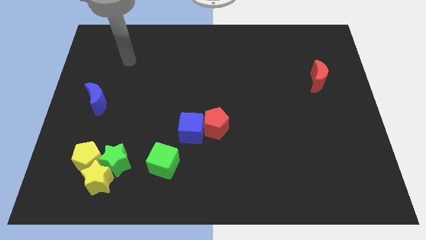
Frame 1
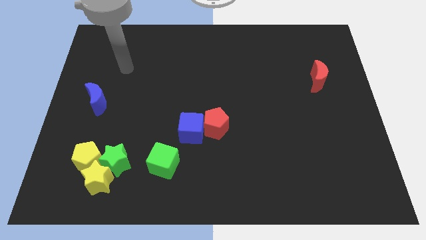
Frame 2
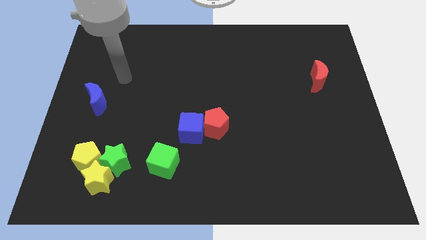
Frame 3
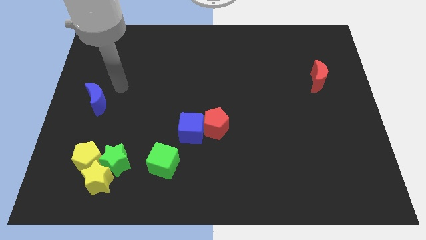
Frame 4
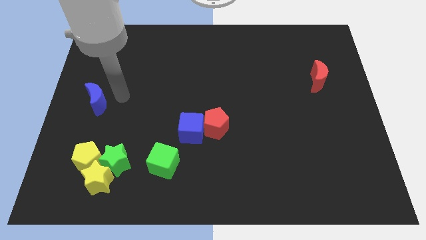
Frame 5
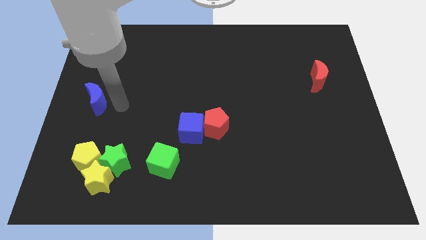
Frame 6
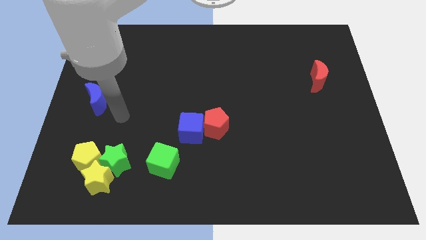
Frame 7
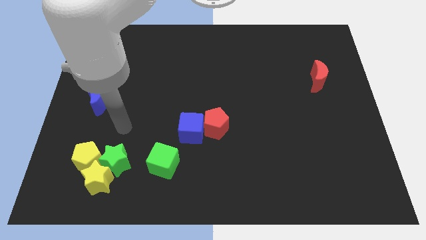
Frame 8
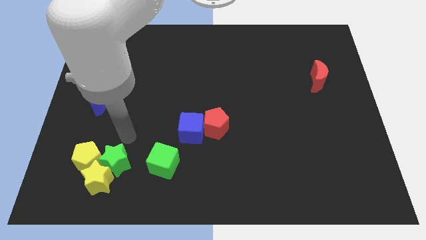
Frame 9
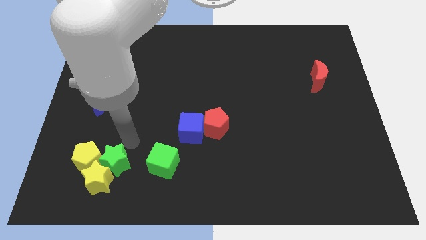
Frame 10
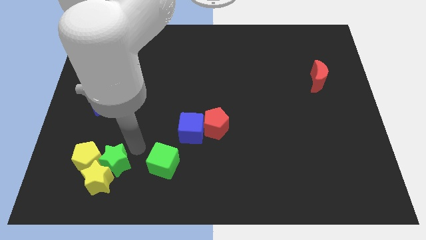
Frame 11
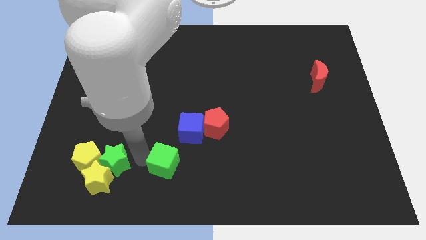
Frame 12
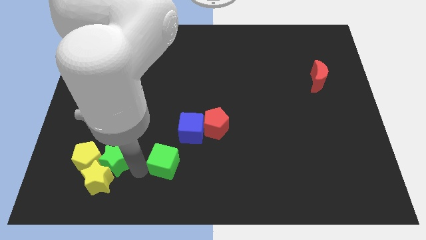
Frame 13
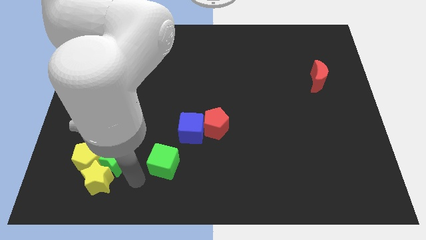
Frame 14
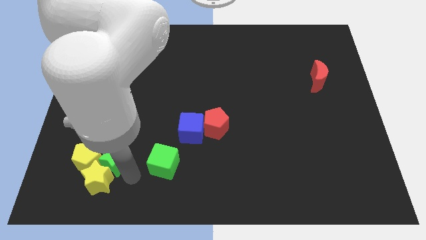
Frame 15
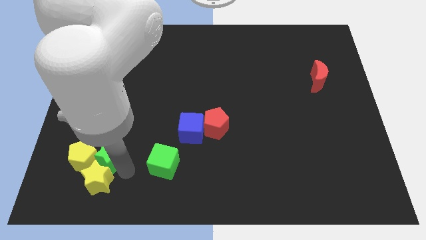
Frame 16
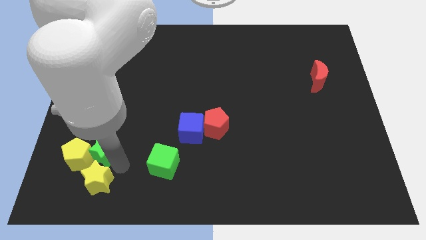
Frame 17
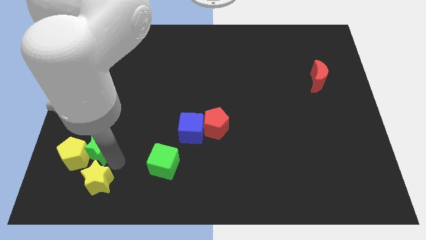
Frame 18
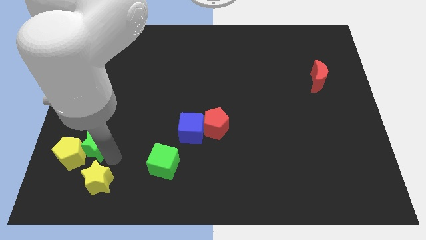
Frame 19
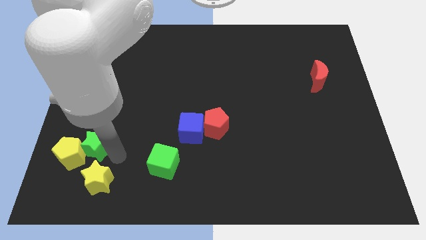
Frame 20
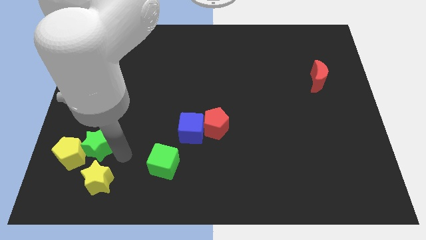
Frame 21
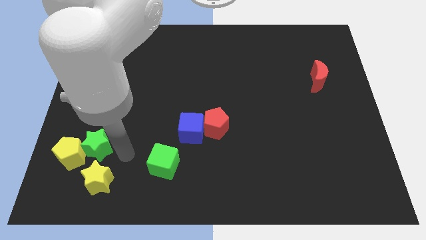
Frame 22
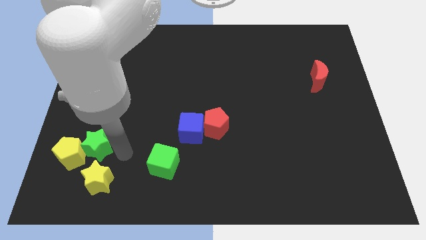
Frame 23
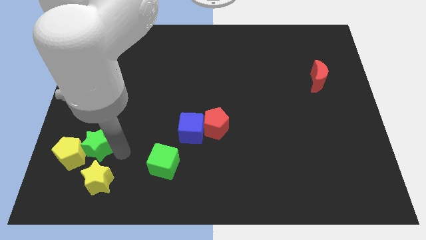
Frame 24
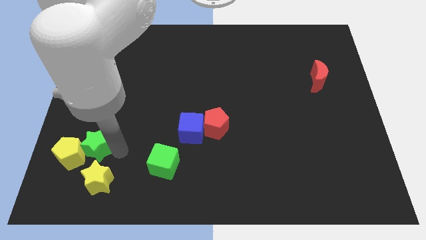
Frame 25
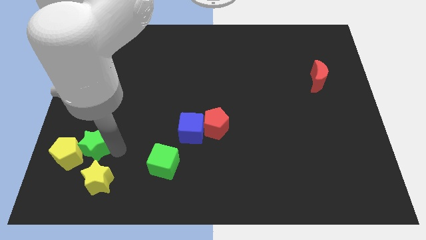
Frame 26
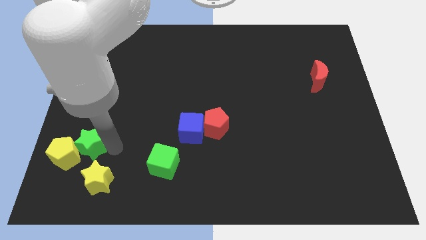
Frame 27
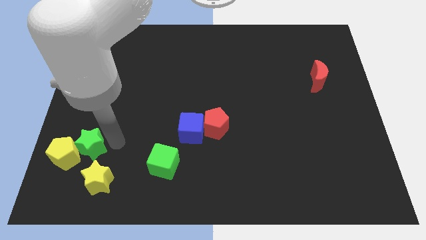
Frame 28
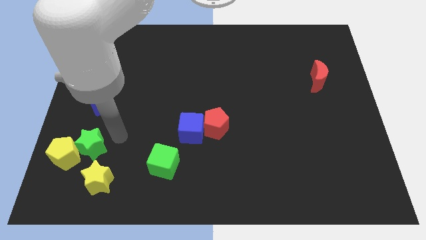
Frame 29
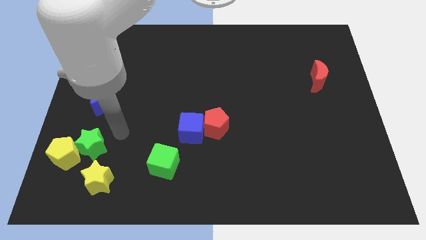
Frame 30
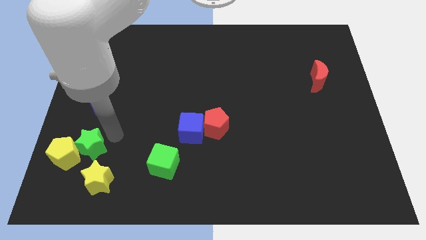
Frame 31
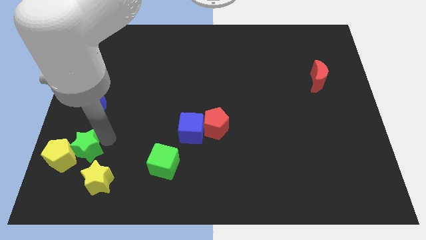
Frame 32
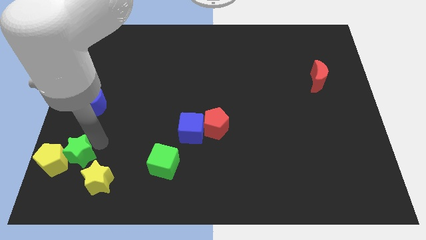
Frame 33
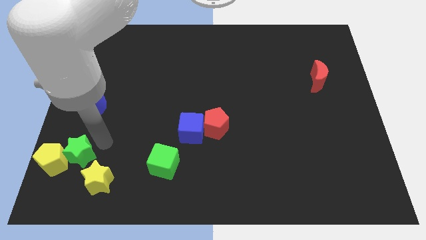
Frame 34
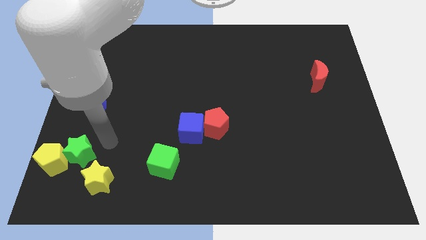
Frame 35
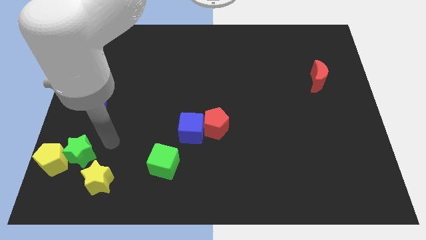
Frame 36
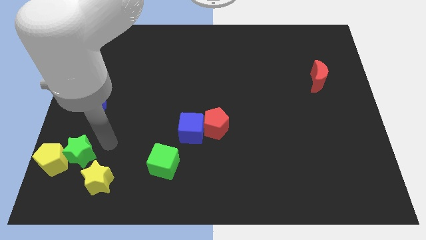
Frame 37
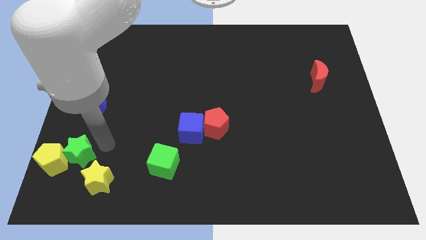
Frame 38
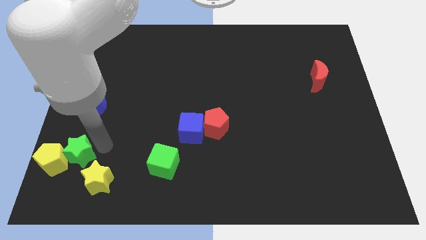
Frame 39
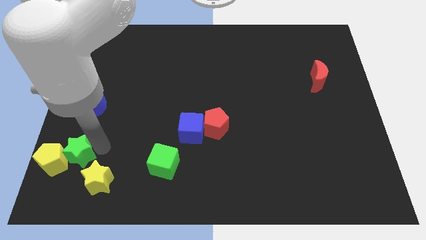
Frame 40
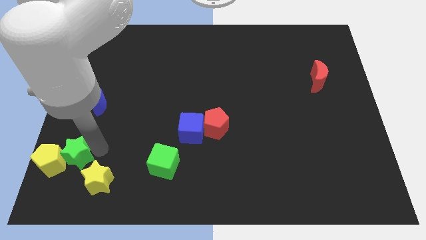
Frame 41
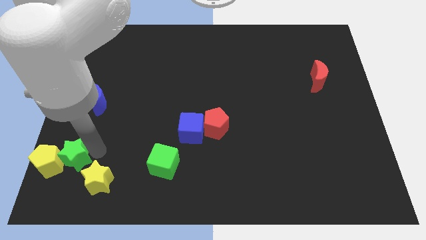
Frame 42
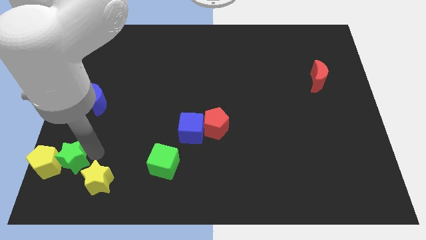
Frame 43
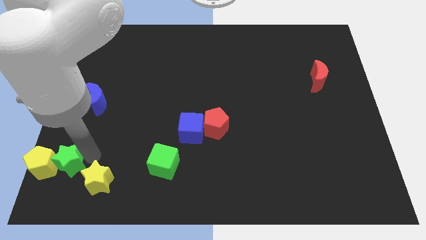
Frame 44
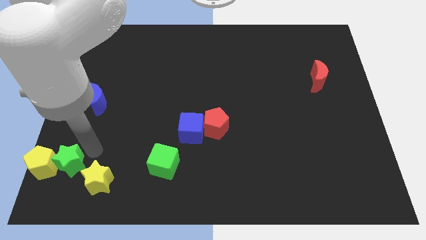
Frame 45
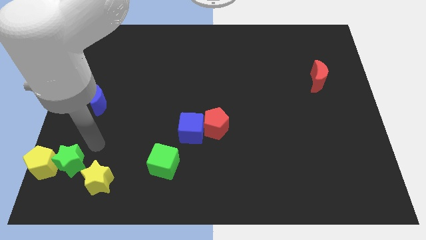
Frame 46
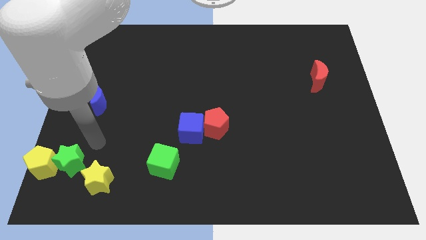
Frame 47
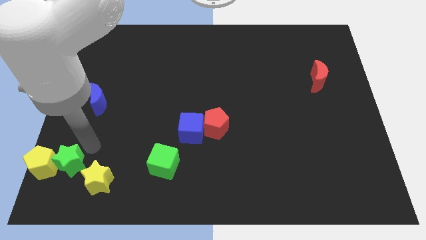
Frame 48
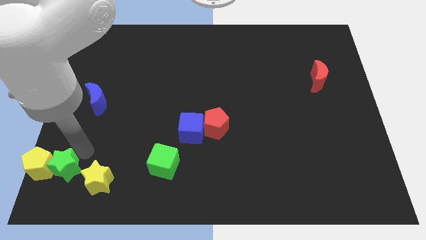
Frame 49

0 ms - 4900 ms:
put the green star to the bottom left

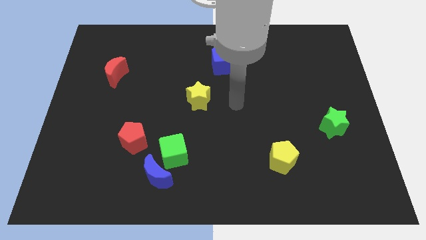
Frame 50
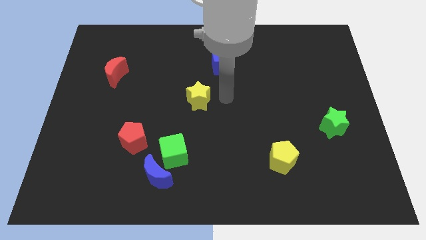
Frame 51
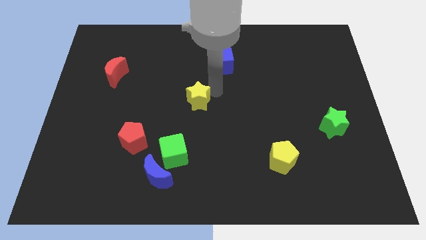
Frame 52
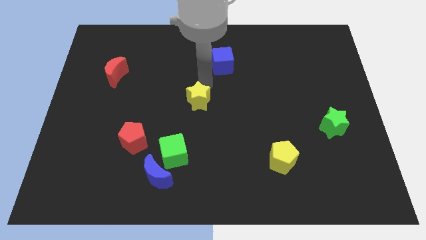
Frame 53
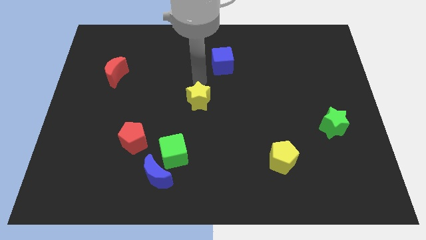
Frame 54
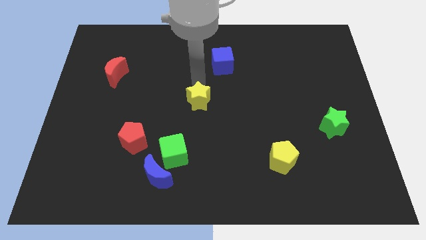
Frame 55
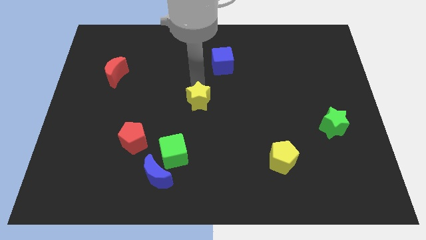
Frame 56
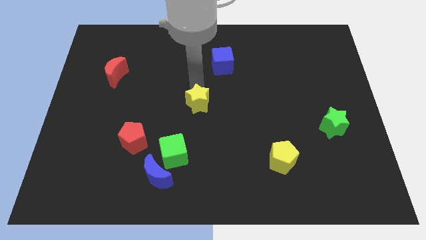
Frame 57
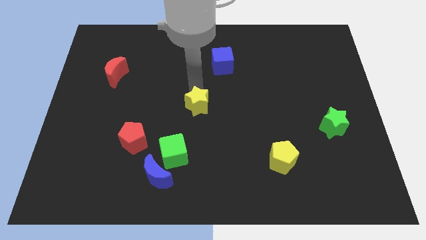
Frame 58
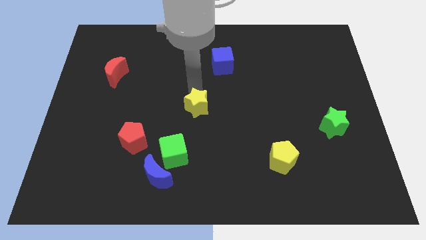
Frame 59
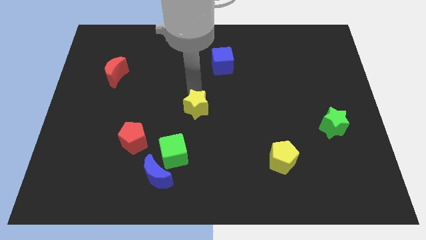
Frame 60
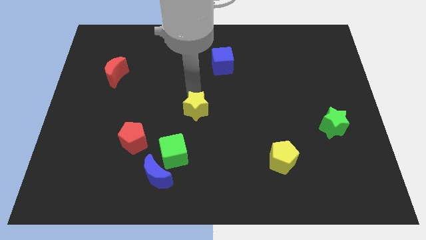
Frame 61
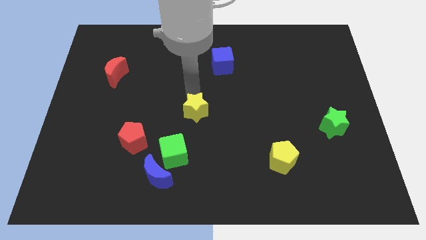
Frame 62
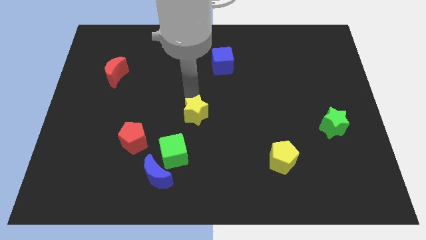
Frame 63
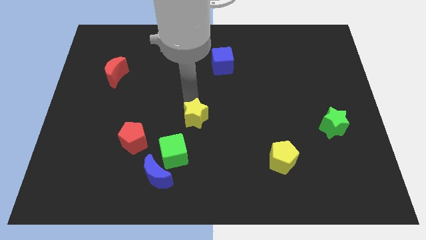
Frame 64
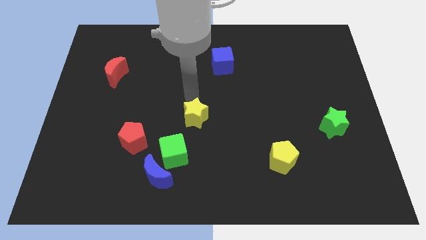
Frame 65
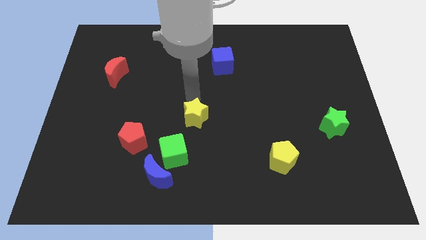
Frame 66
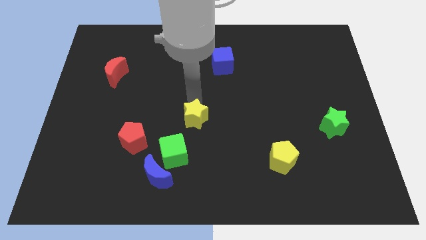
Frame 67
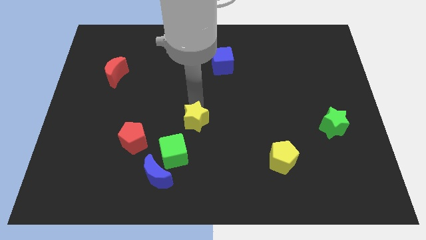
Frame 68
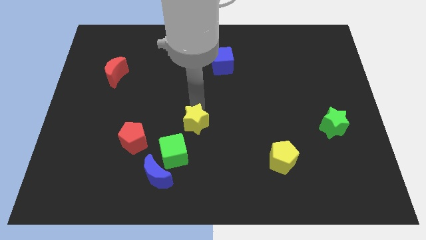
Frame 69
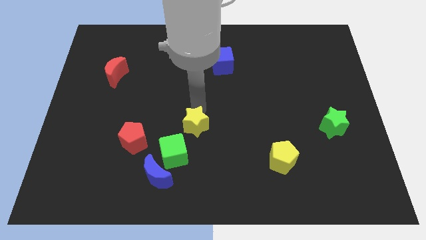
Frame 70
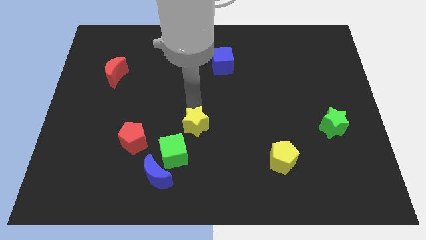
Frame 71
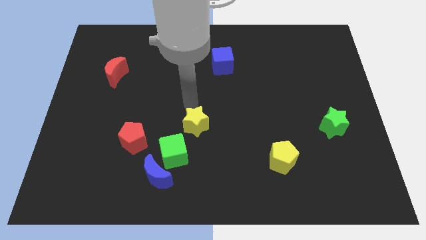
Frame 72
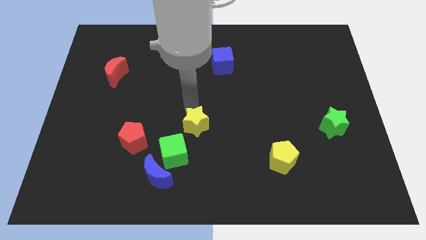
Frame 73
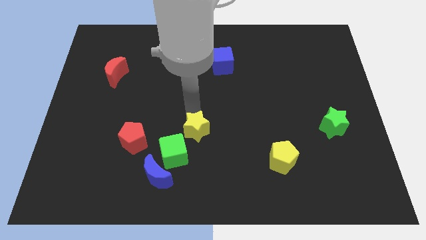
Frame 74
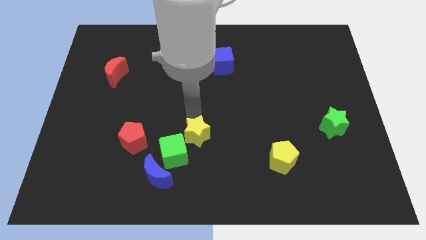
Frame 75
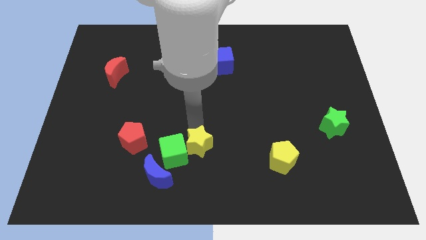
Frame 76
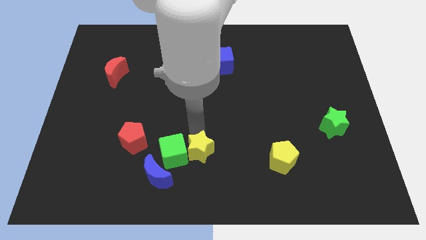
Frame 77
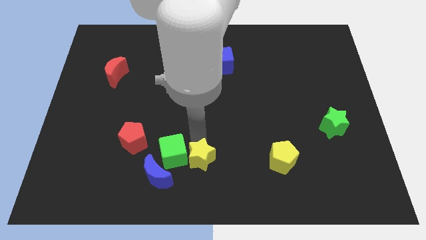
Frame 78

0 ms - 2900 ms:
move the yellow star to the bottom side
